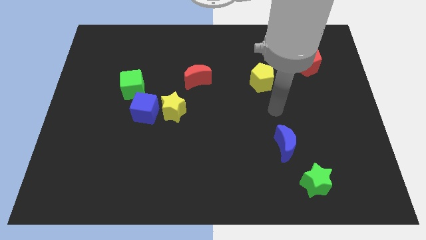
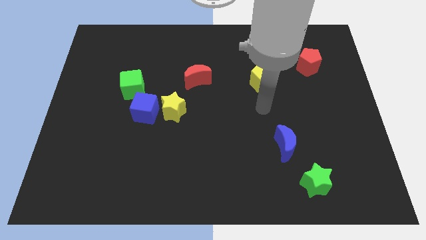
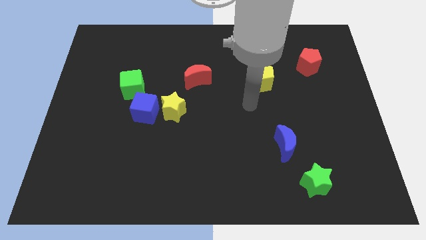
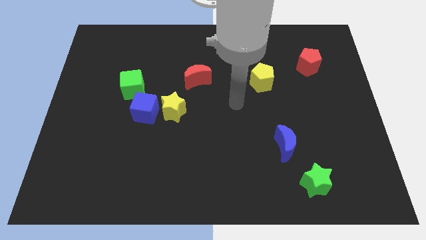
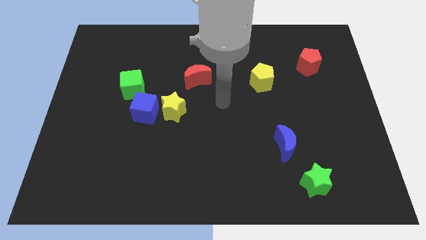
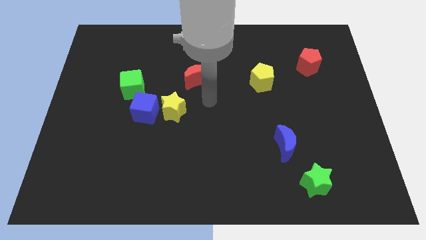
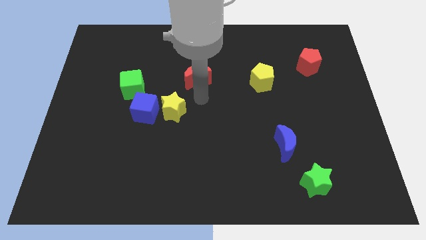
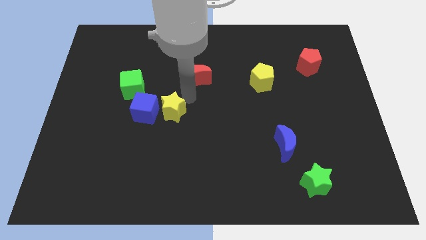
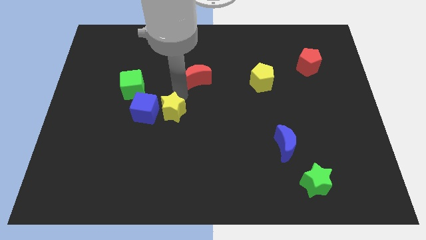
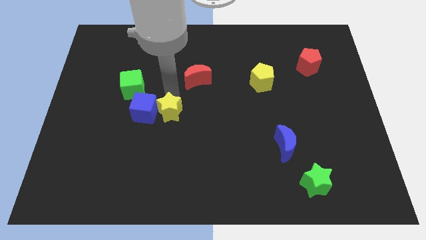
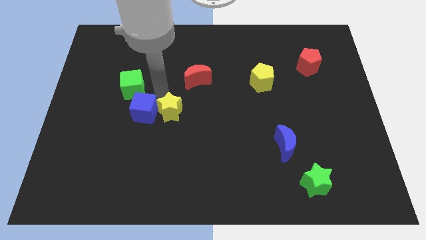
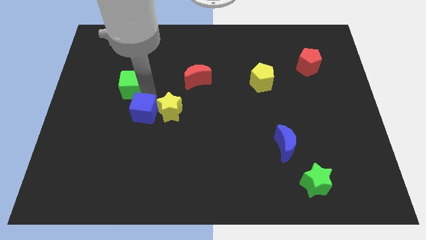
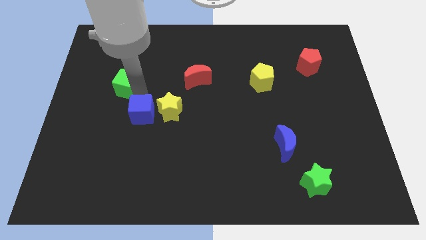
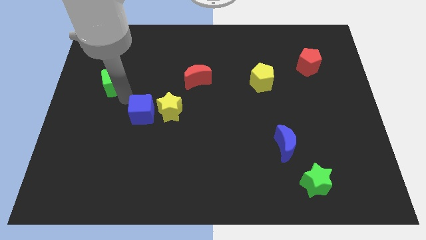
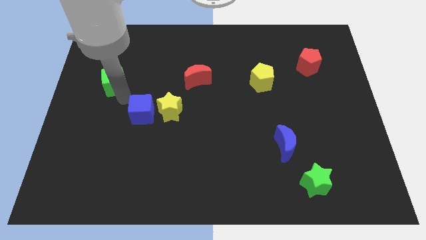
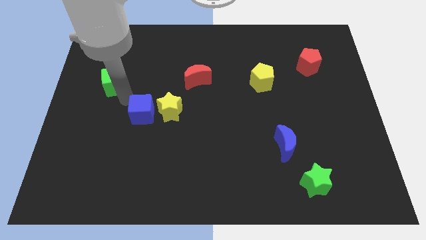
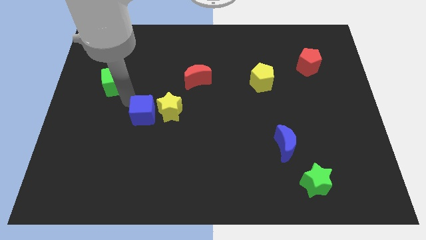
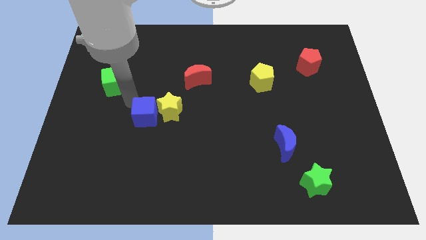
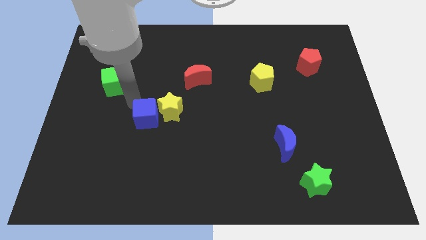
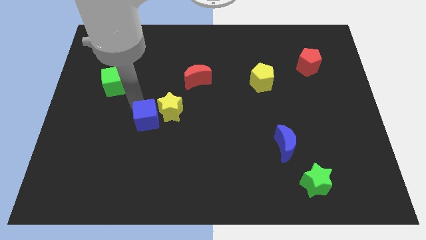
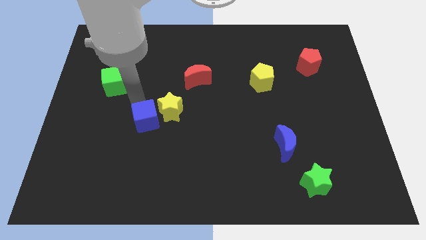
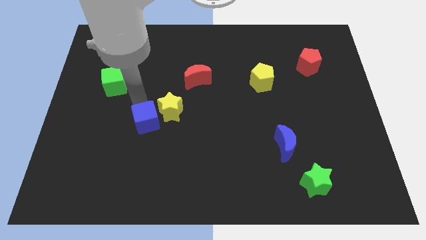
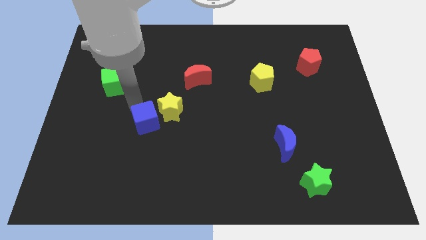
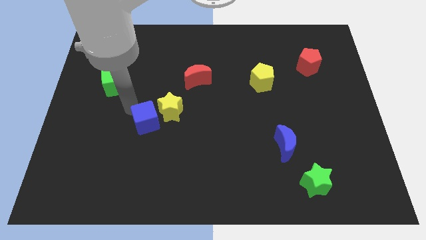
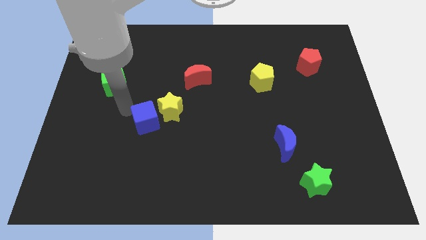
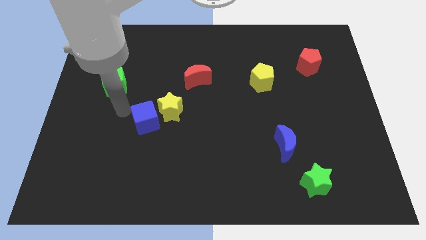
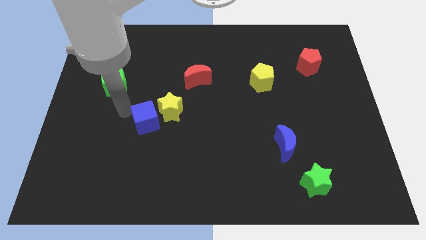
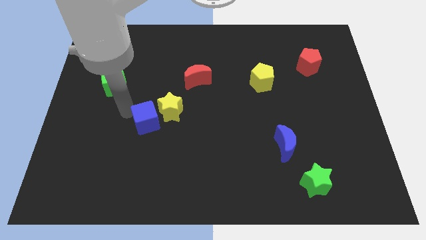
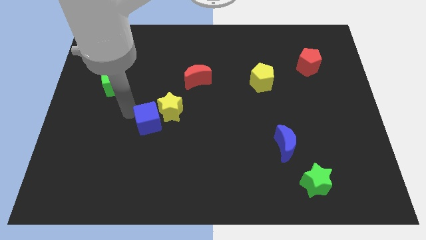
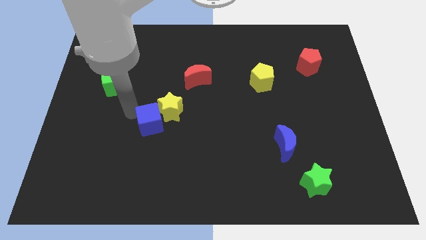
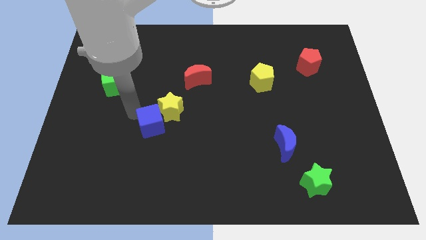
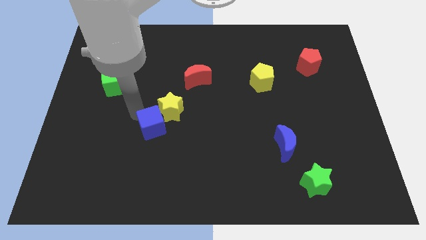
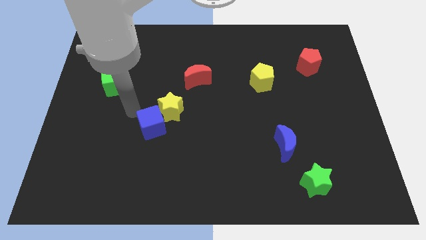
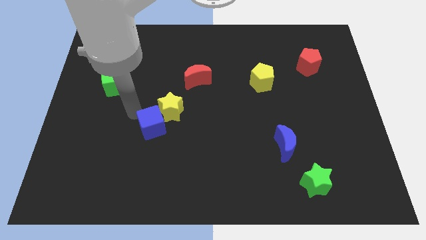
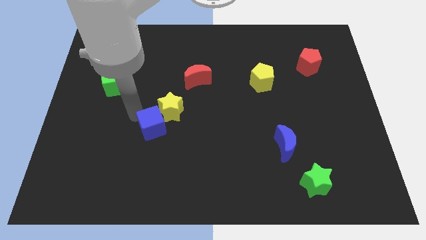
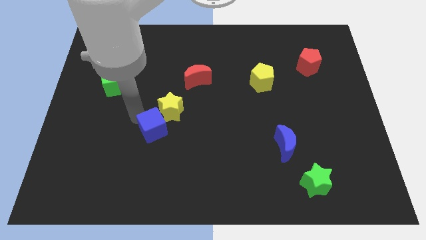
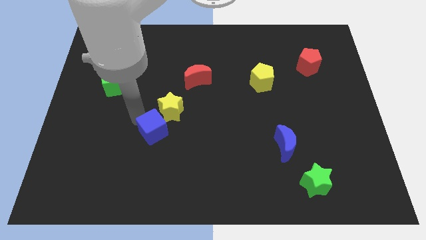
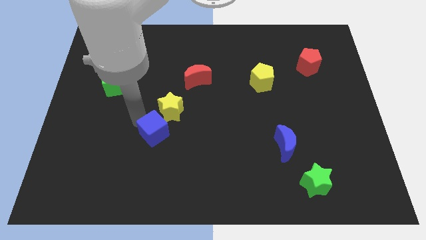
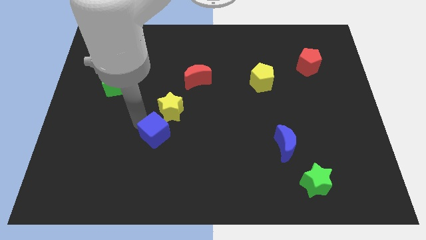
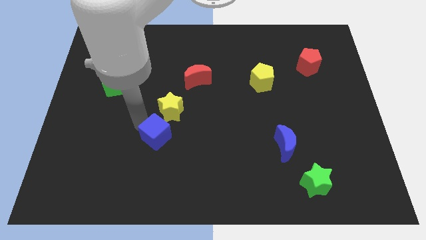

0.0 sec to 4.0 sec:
slightly move the blue cube diagonally down and right

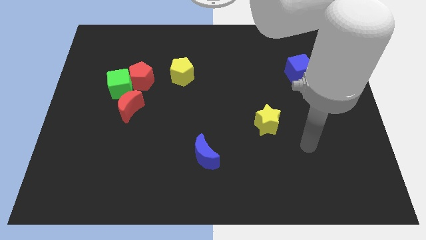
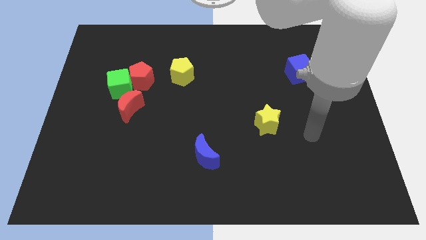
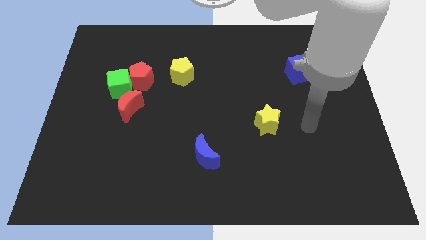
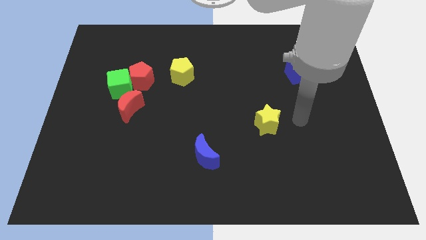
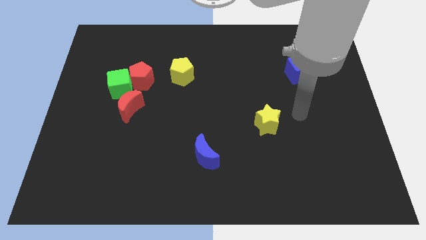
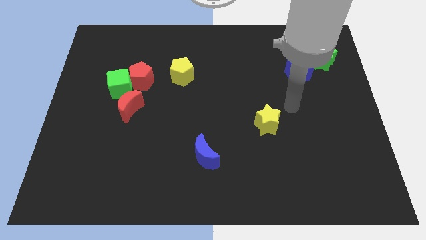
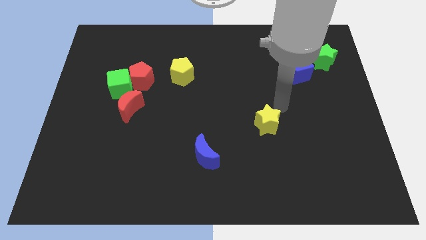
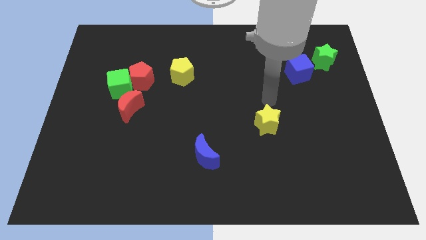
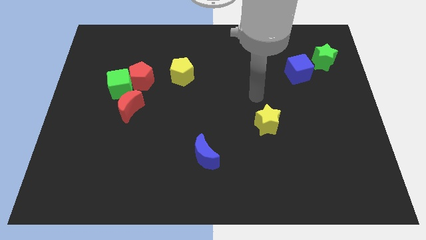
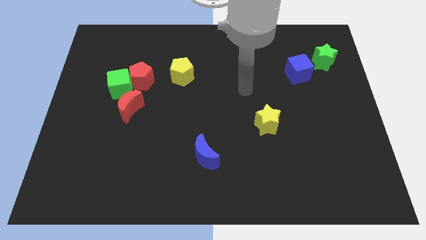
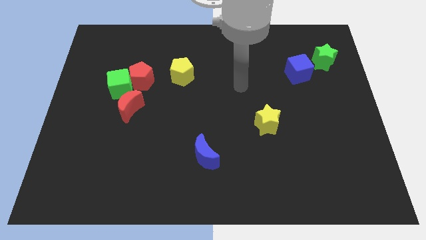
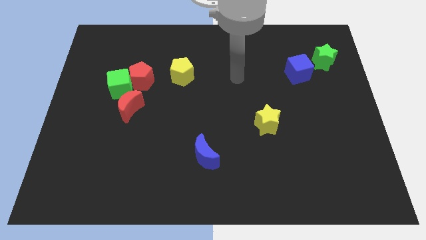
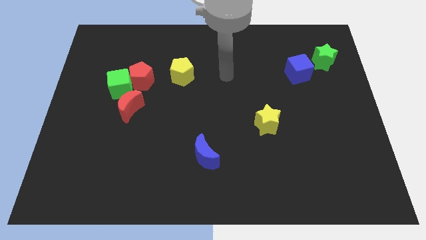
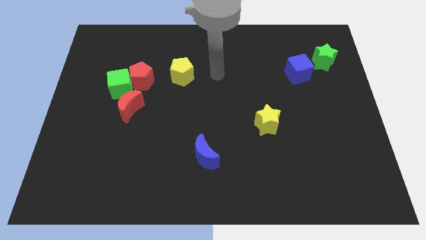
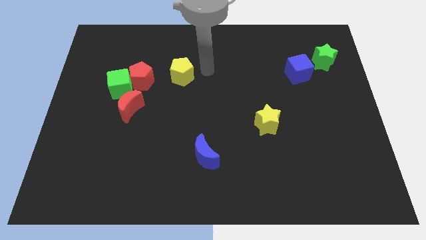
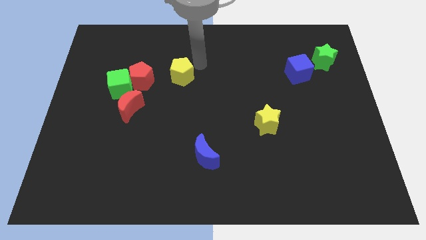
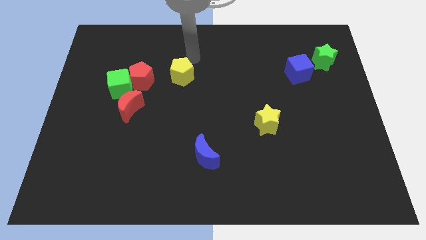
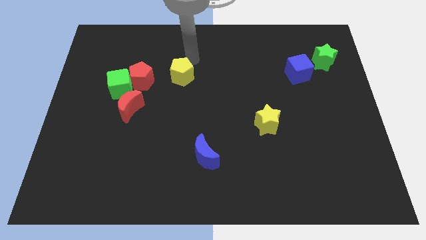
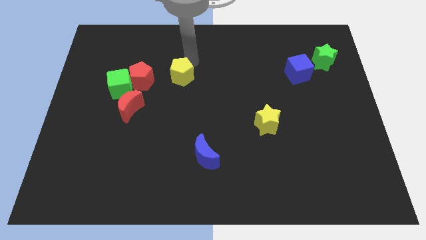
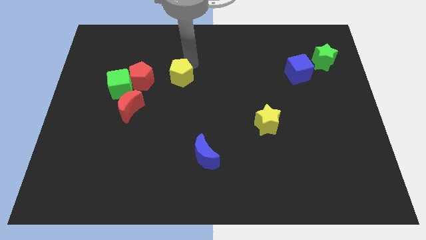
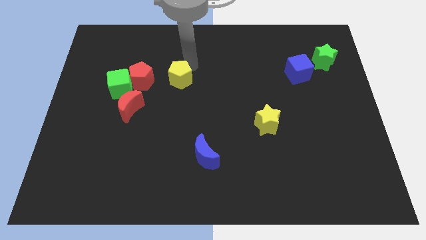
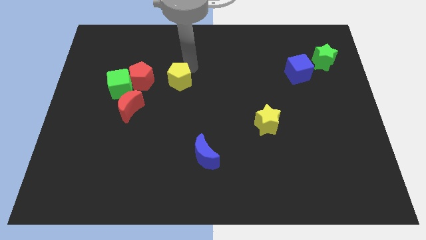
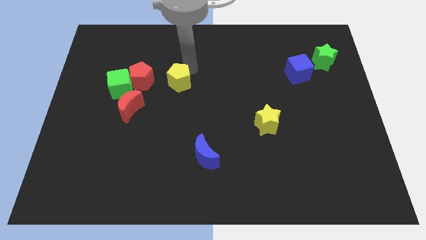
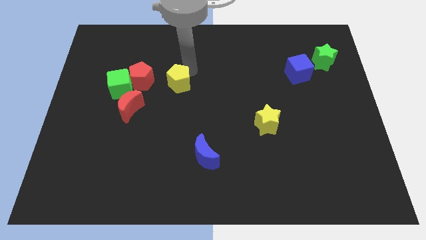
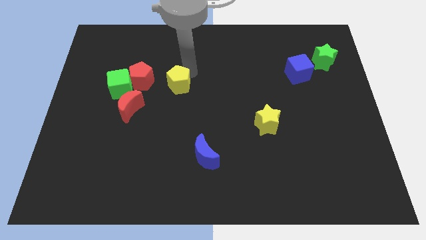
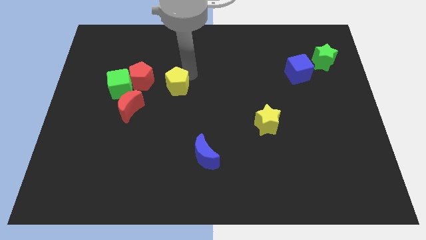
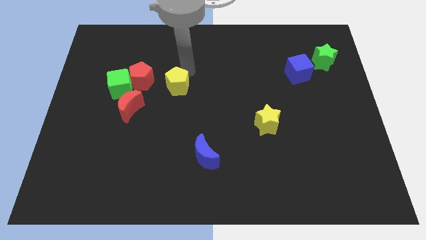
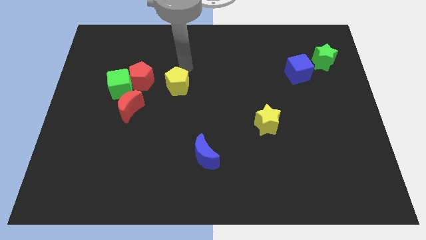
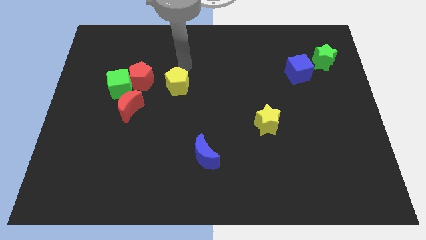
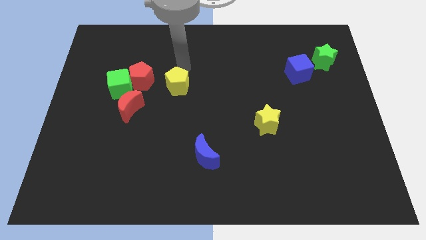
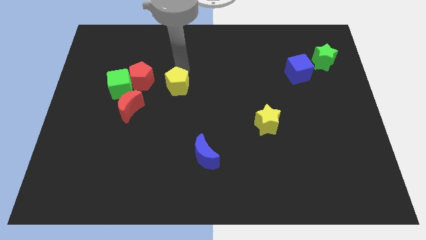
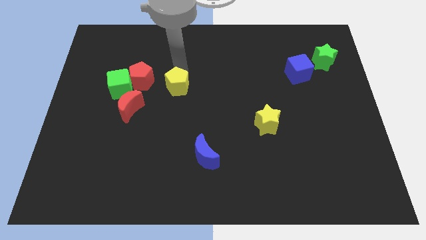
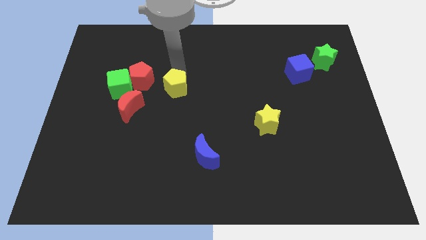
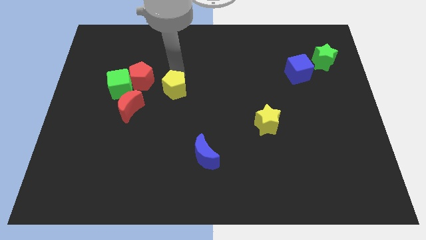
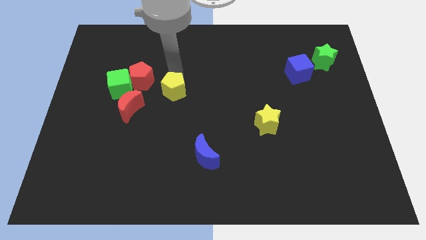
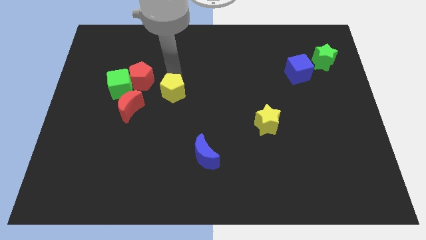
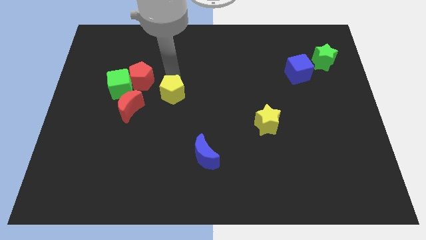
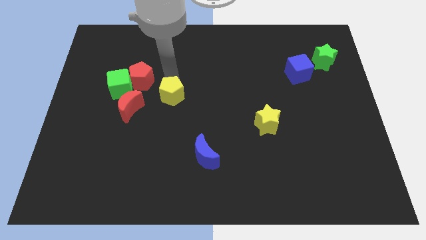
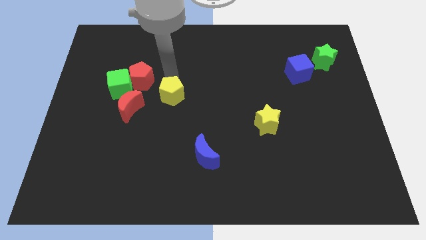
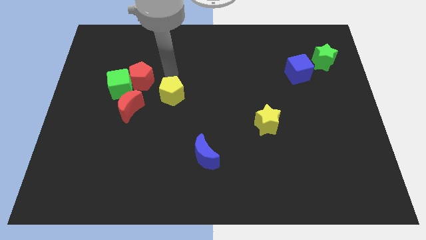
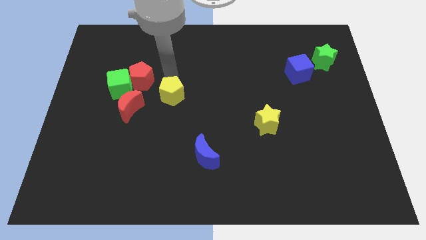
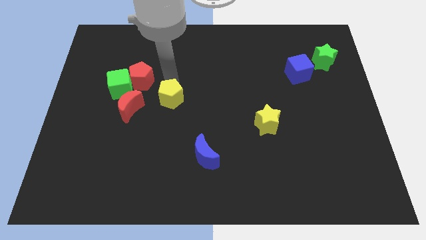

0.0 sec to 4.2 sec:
slightly push the yellow pentagon downwards

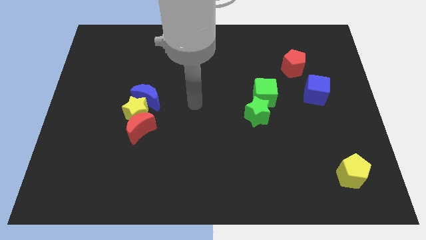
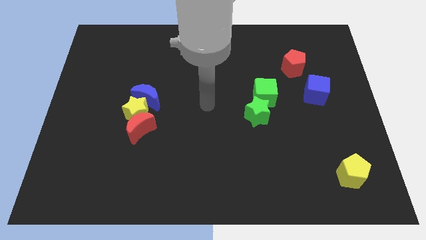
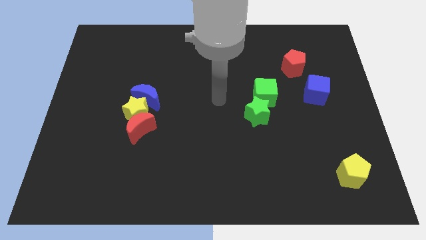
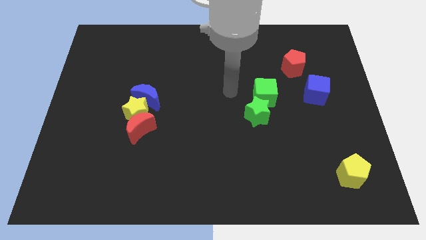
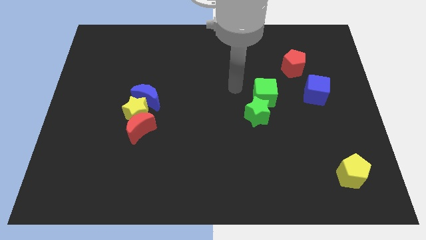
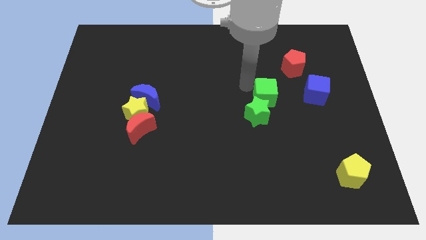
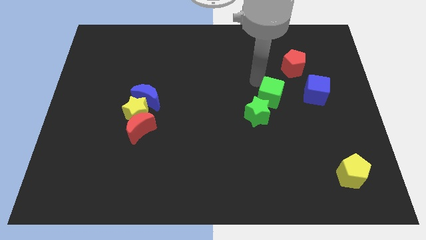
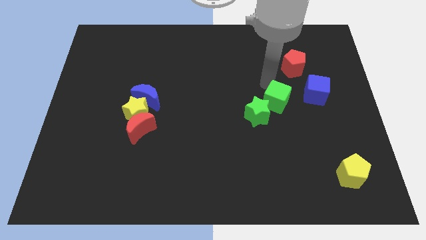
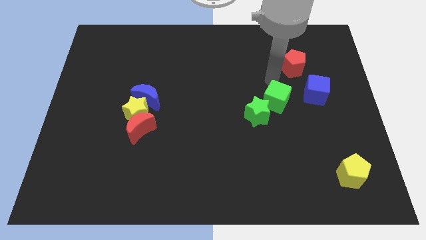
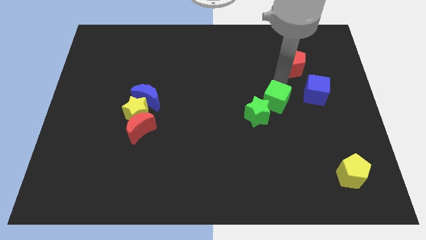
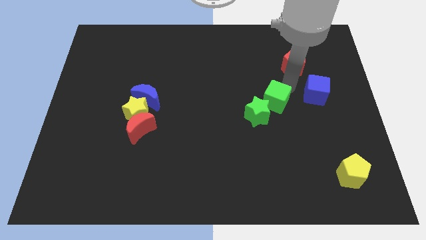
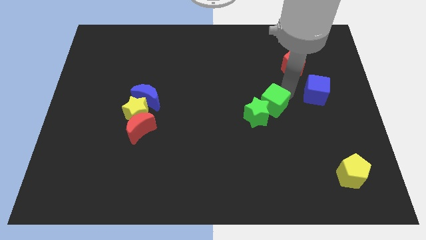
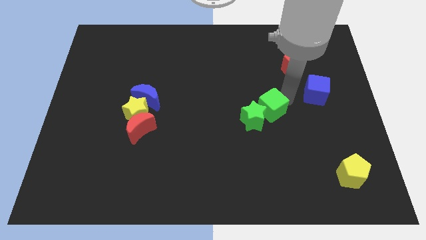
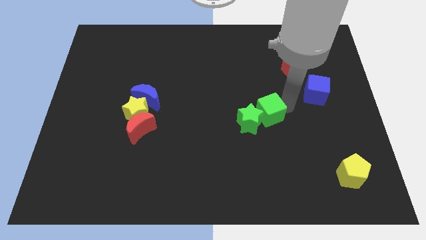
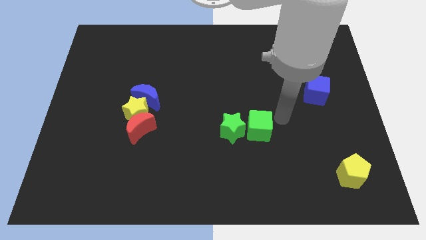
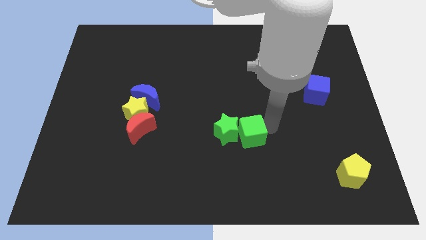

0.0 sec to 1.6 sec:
move the green star left slightly
